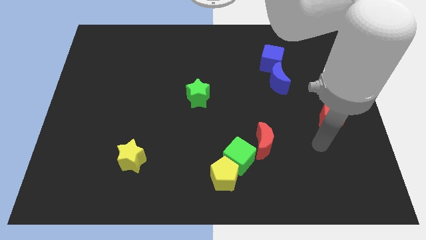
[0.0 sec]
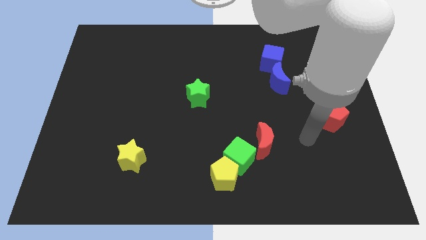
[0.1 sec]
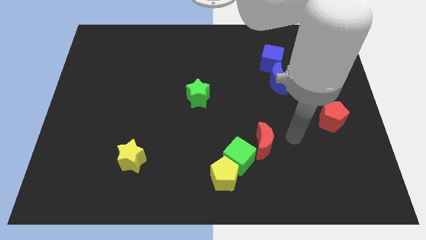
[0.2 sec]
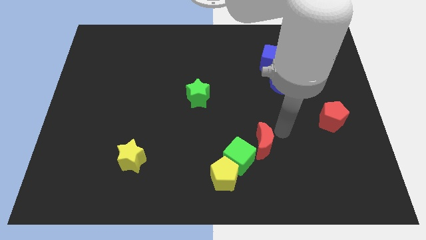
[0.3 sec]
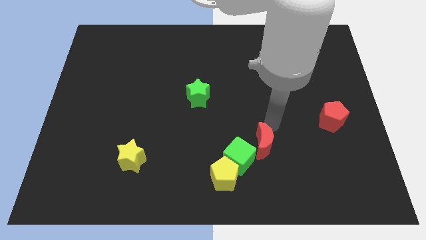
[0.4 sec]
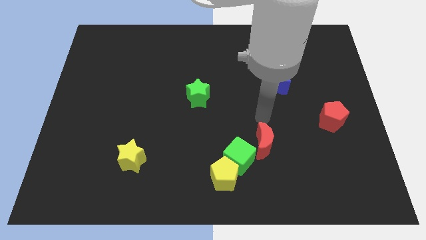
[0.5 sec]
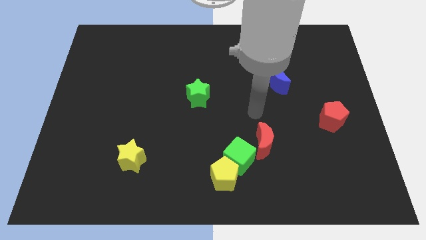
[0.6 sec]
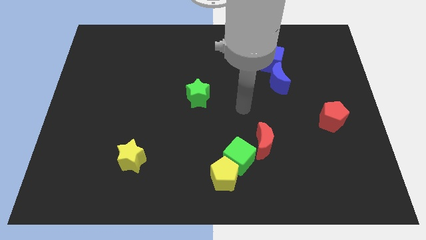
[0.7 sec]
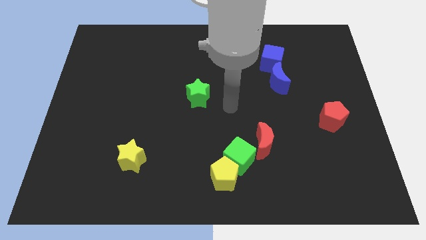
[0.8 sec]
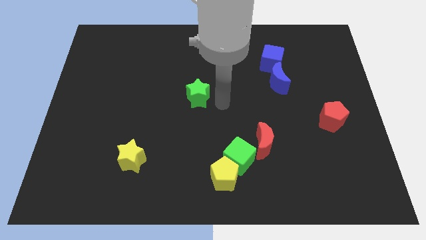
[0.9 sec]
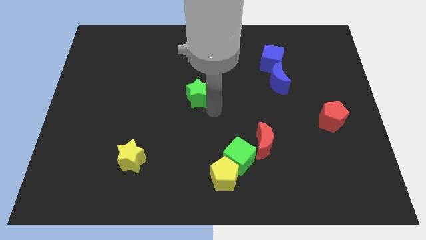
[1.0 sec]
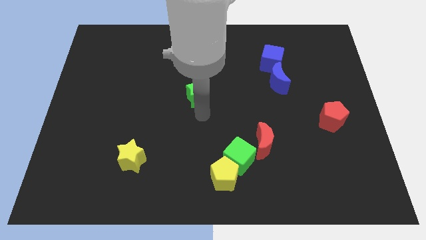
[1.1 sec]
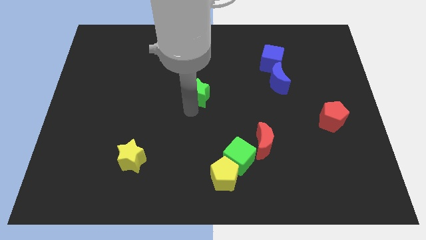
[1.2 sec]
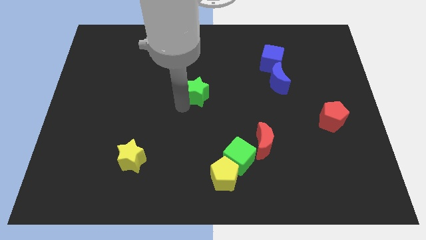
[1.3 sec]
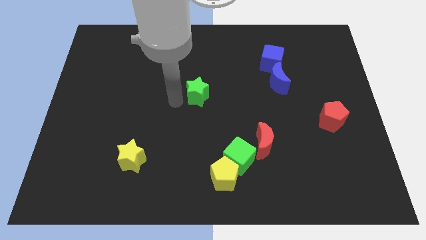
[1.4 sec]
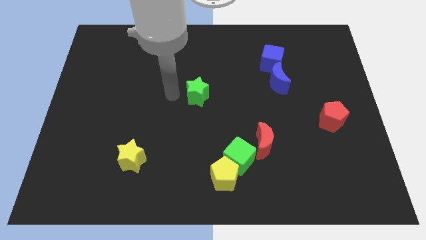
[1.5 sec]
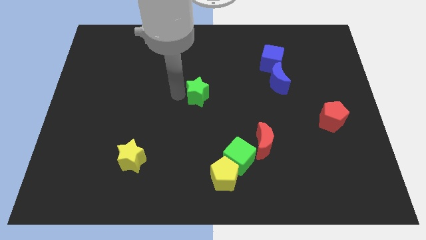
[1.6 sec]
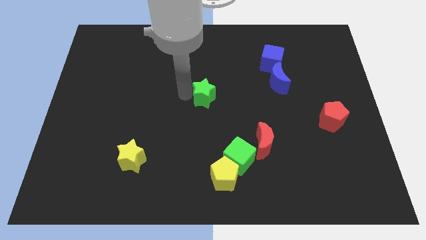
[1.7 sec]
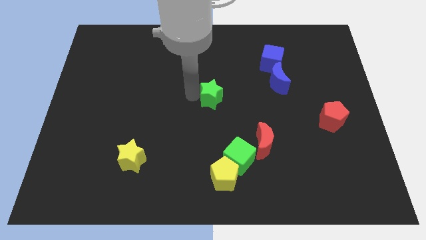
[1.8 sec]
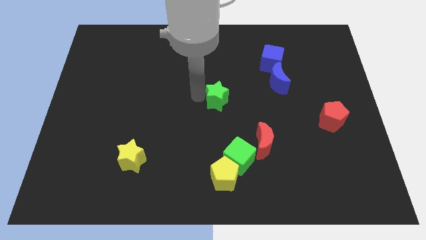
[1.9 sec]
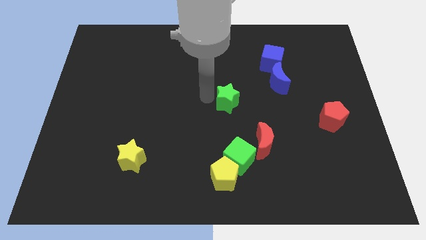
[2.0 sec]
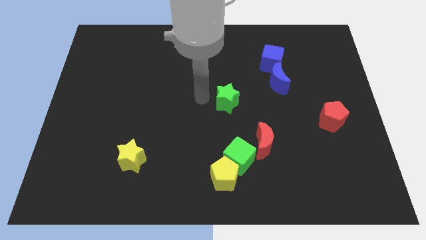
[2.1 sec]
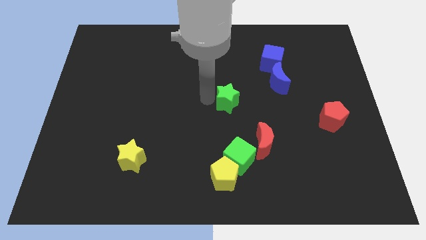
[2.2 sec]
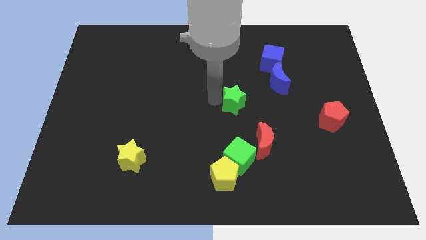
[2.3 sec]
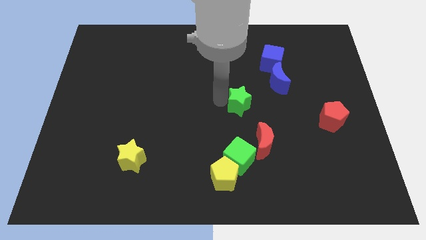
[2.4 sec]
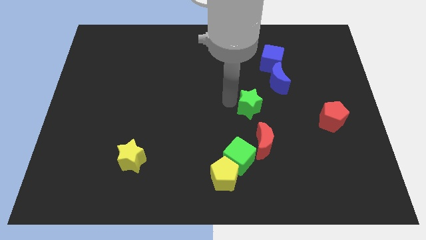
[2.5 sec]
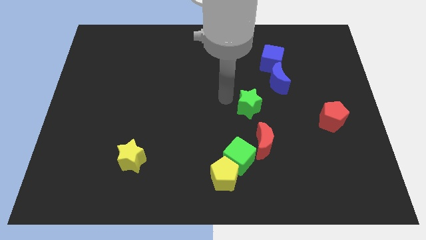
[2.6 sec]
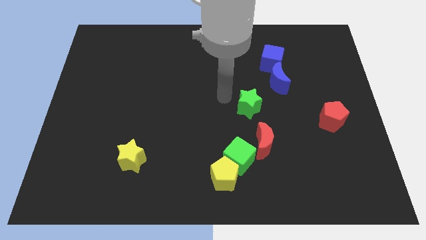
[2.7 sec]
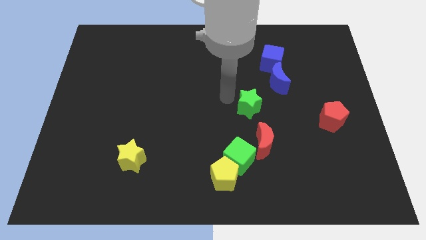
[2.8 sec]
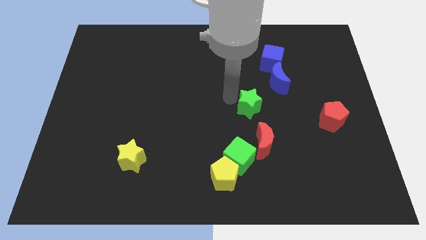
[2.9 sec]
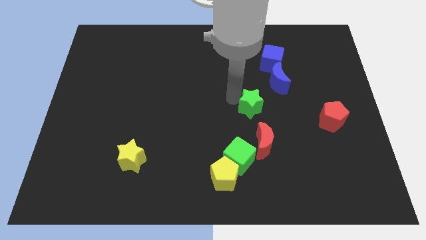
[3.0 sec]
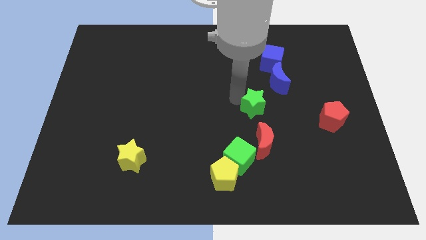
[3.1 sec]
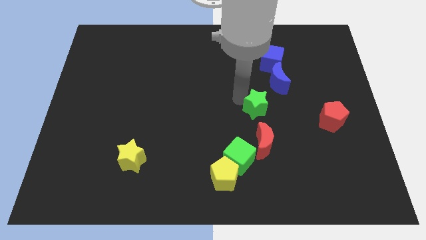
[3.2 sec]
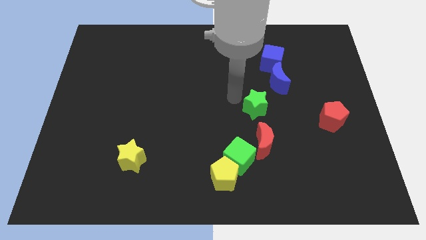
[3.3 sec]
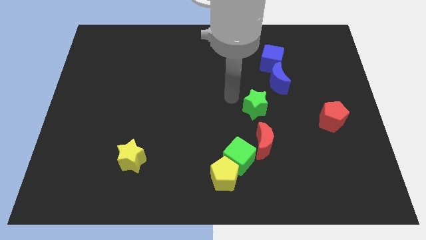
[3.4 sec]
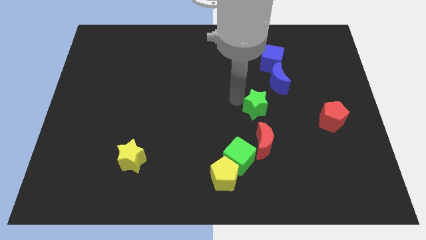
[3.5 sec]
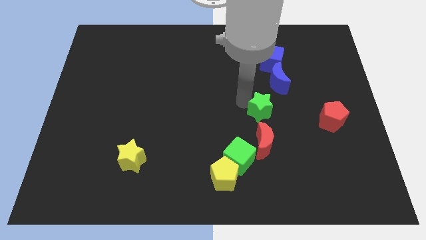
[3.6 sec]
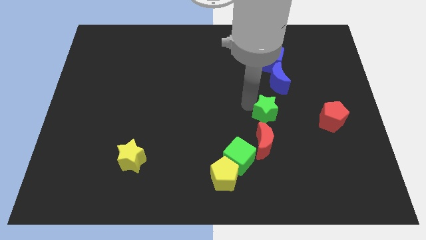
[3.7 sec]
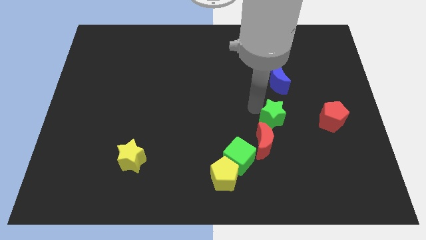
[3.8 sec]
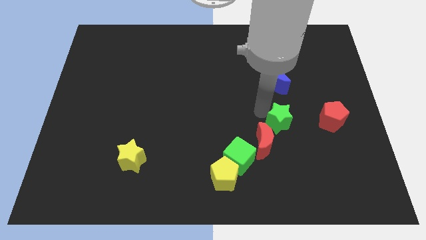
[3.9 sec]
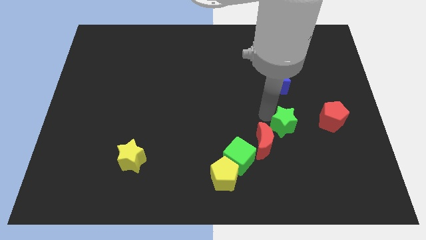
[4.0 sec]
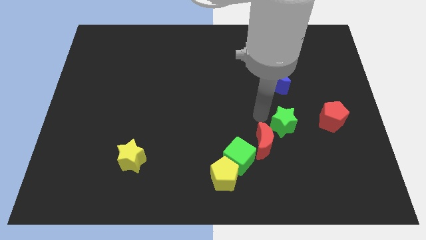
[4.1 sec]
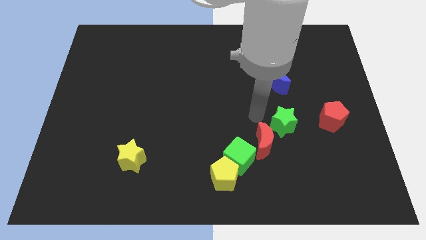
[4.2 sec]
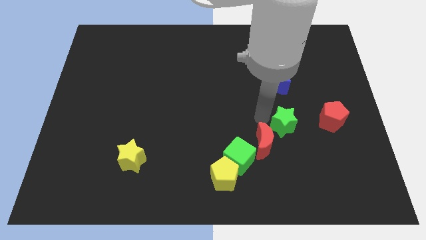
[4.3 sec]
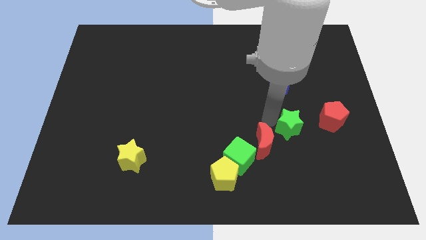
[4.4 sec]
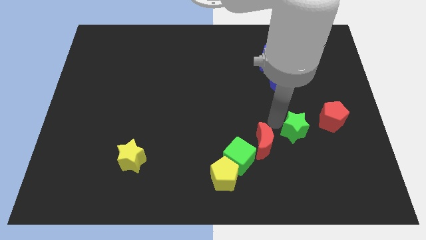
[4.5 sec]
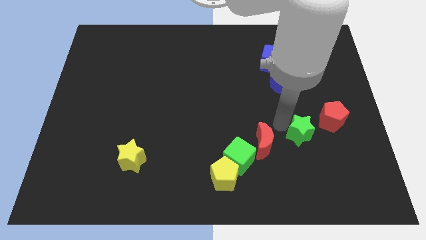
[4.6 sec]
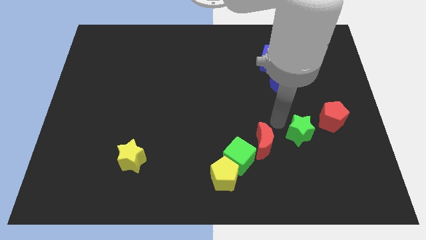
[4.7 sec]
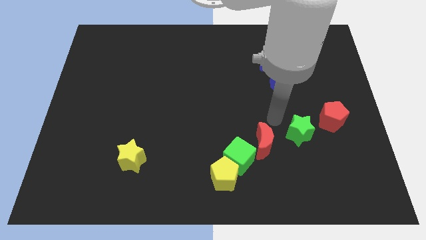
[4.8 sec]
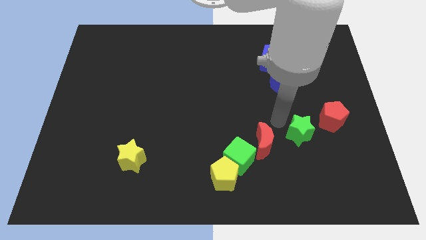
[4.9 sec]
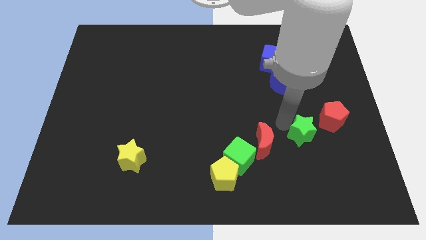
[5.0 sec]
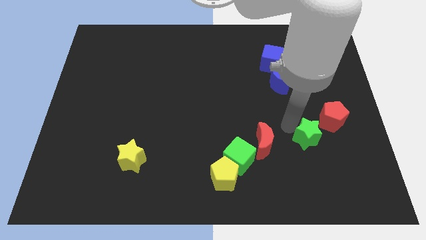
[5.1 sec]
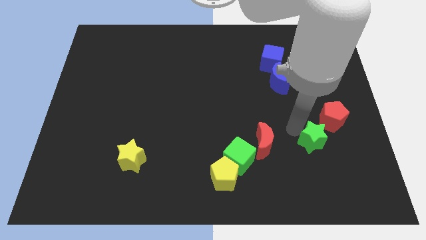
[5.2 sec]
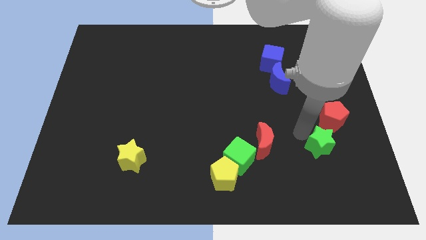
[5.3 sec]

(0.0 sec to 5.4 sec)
put the green star below the red pentagon
